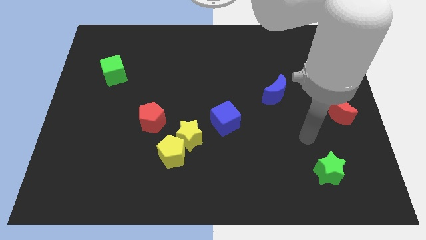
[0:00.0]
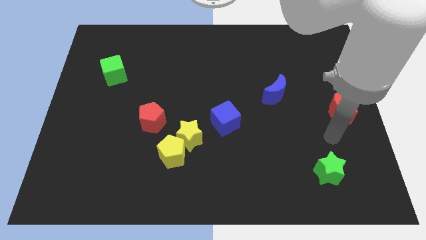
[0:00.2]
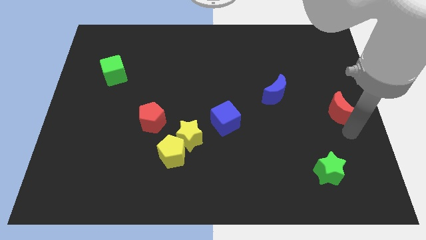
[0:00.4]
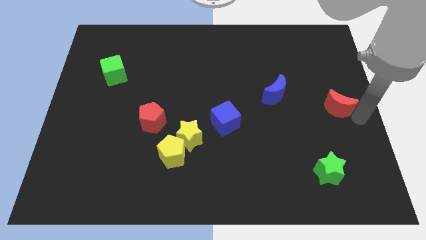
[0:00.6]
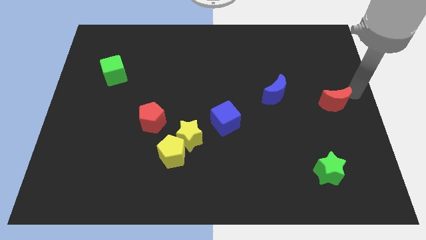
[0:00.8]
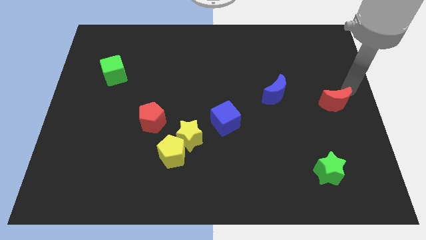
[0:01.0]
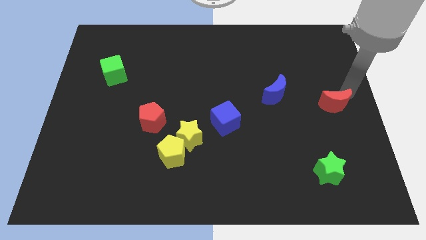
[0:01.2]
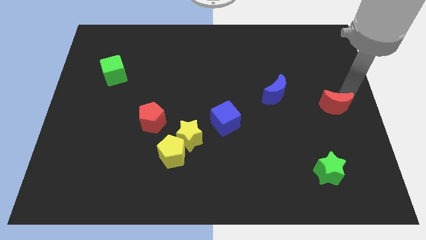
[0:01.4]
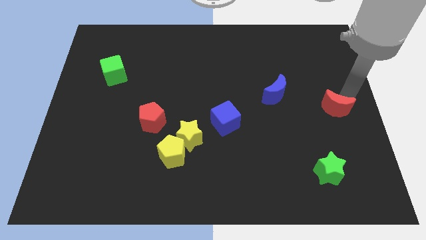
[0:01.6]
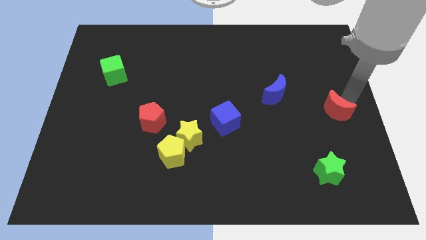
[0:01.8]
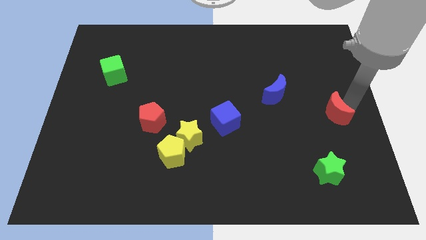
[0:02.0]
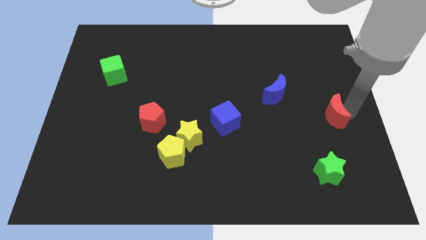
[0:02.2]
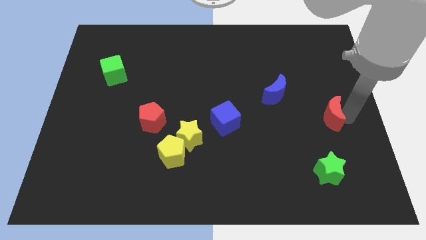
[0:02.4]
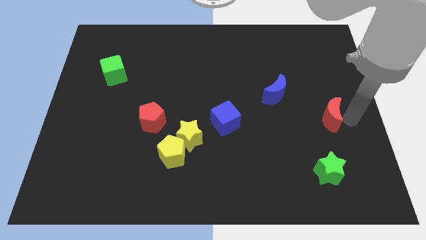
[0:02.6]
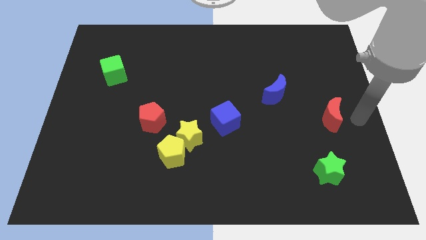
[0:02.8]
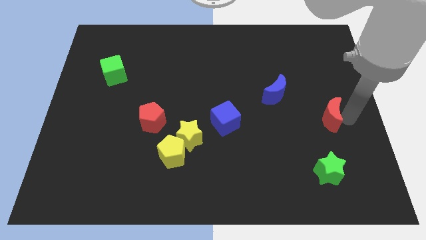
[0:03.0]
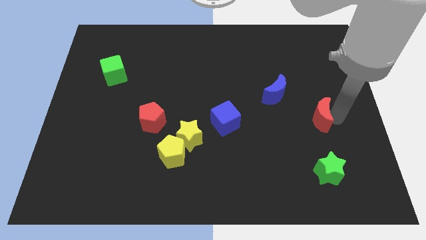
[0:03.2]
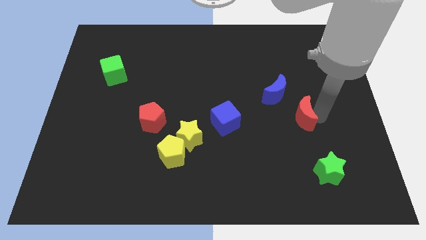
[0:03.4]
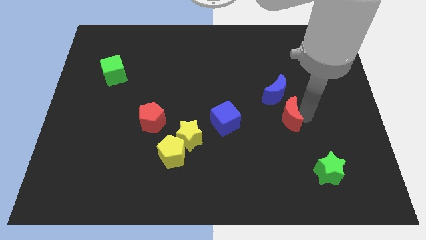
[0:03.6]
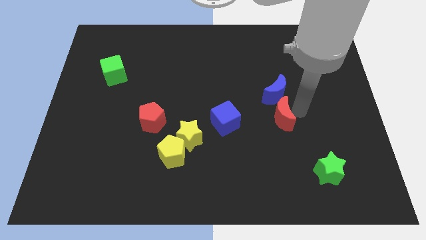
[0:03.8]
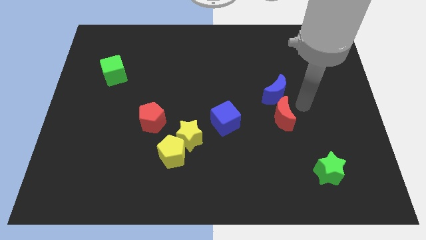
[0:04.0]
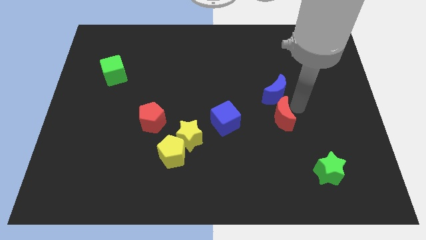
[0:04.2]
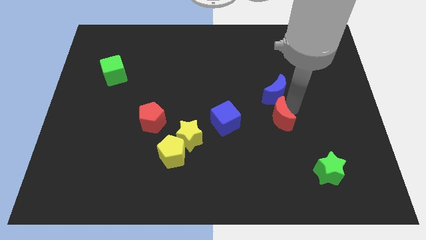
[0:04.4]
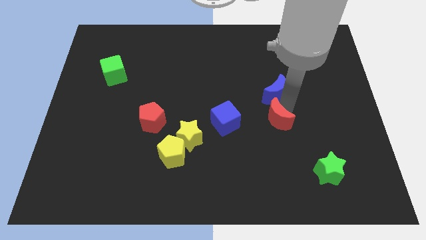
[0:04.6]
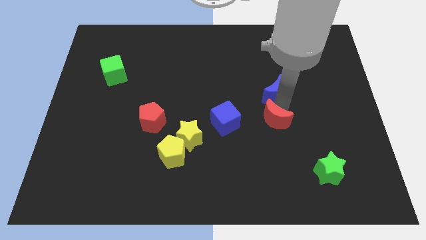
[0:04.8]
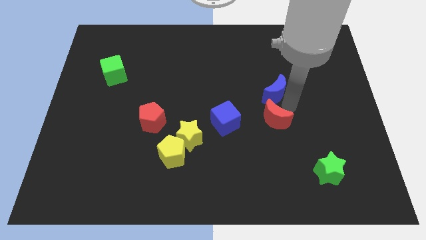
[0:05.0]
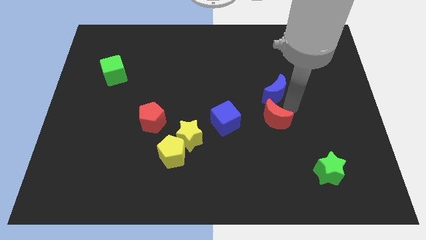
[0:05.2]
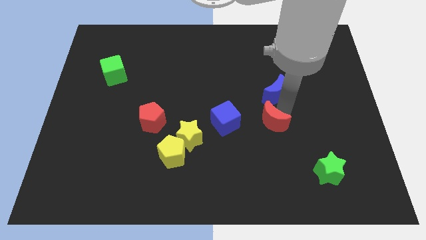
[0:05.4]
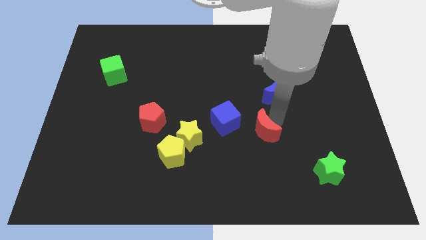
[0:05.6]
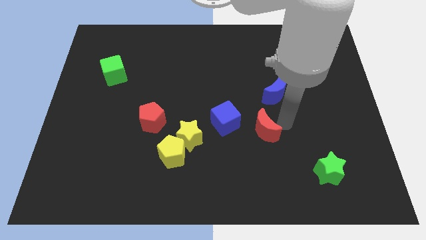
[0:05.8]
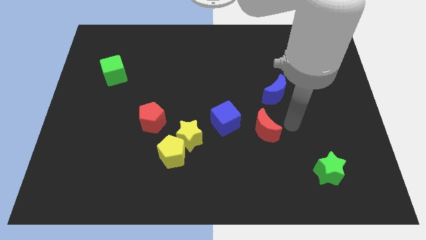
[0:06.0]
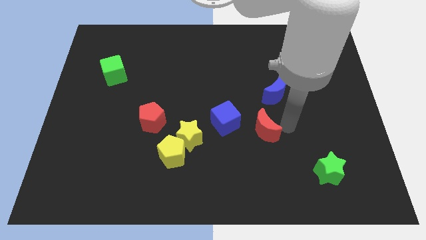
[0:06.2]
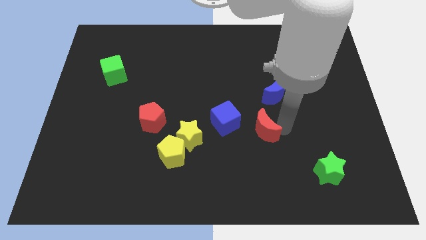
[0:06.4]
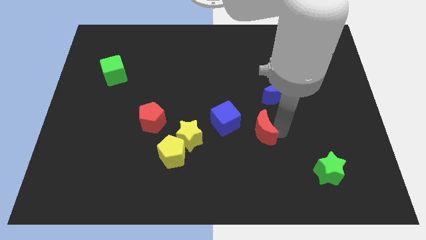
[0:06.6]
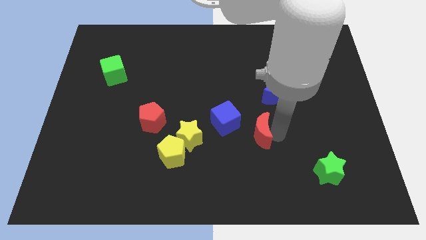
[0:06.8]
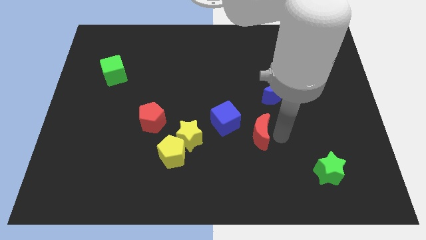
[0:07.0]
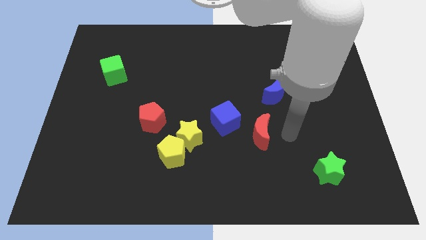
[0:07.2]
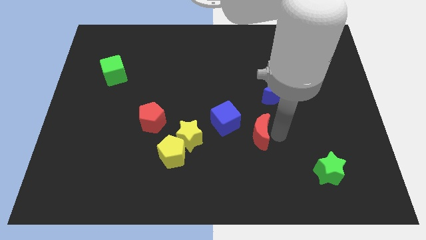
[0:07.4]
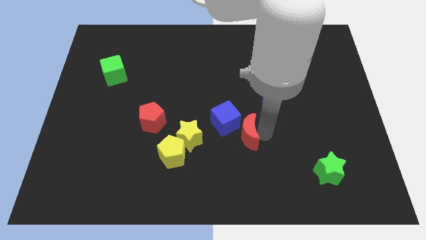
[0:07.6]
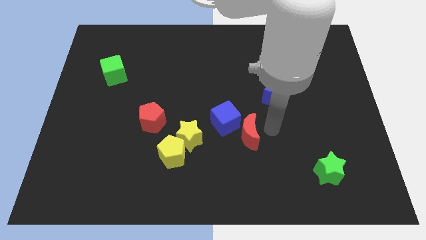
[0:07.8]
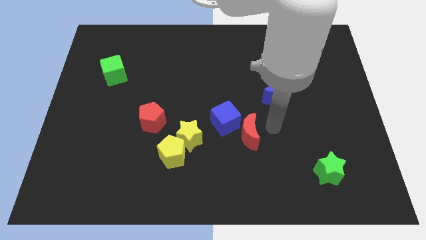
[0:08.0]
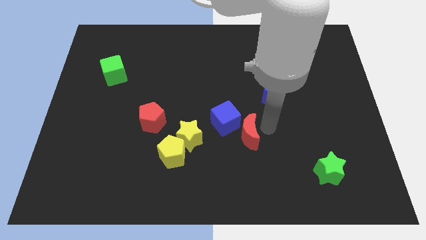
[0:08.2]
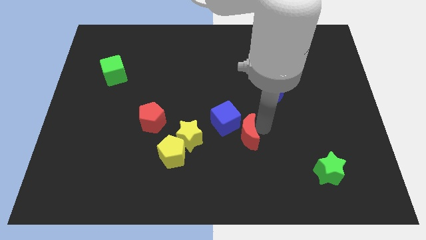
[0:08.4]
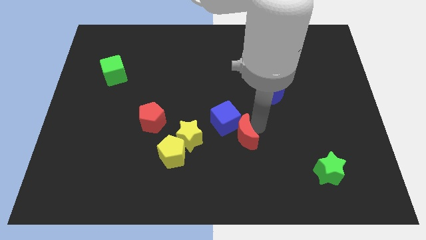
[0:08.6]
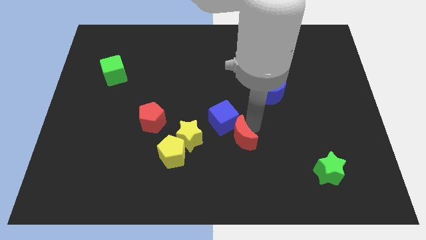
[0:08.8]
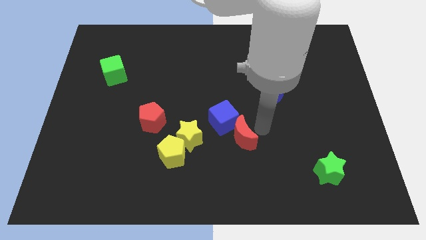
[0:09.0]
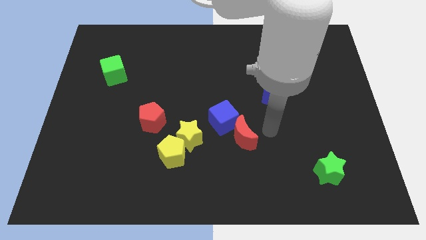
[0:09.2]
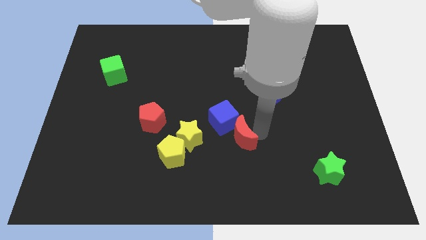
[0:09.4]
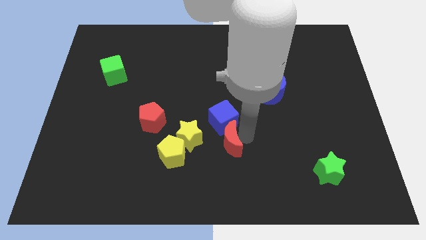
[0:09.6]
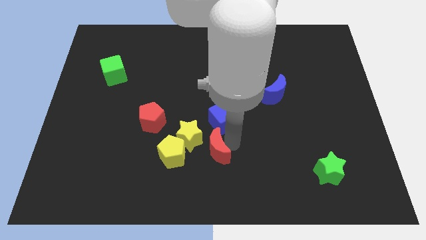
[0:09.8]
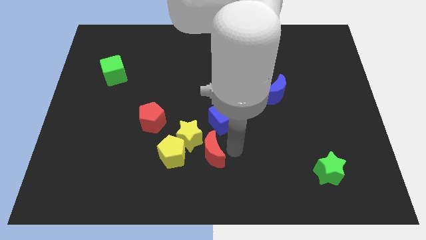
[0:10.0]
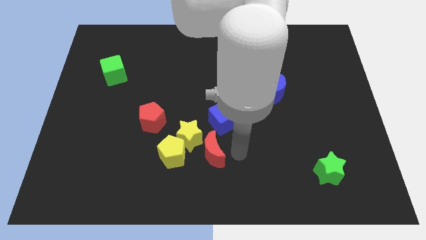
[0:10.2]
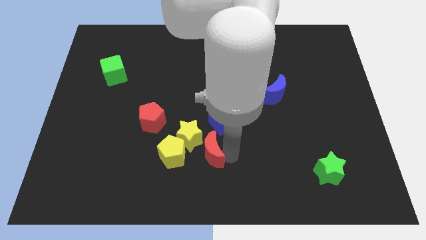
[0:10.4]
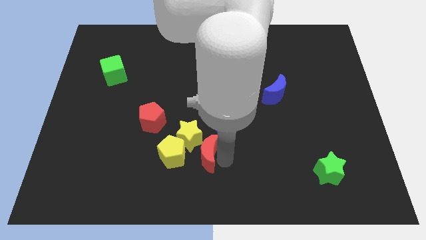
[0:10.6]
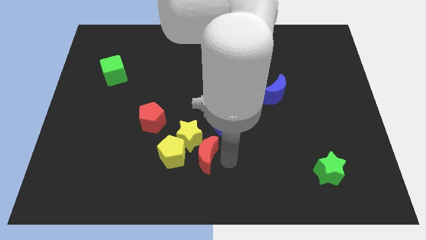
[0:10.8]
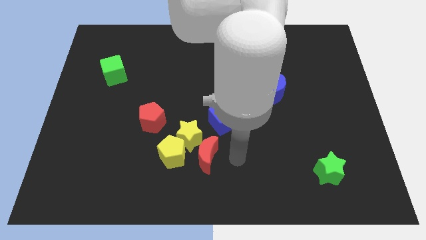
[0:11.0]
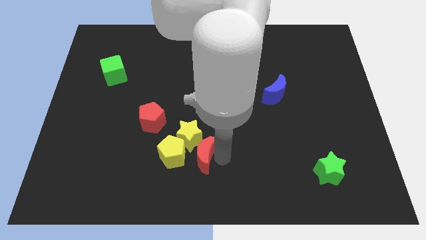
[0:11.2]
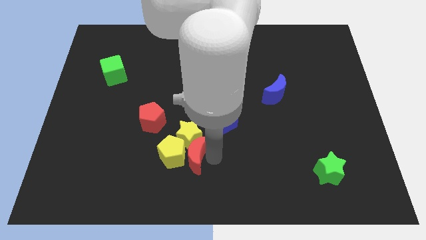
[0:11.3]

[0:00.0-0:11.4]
move the red moon towards the yellow pentagon

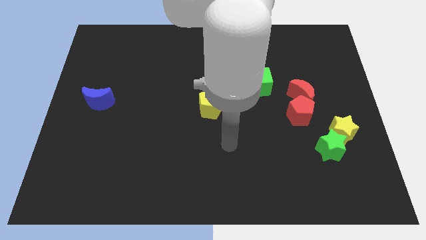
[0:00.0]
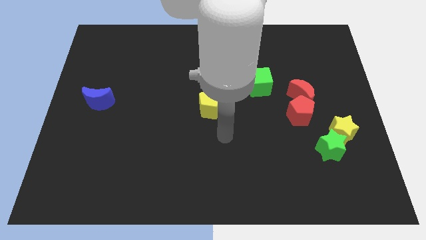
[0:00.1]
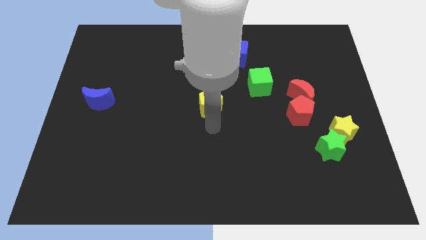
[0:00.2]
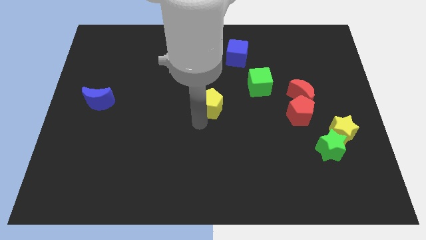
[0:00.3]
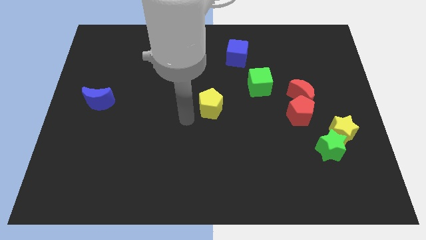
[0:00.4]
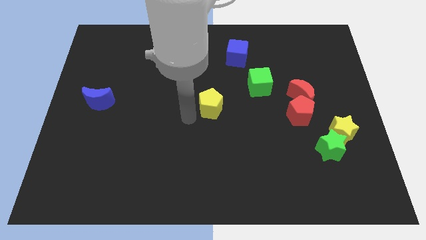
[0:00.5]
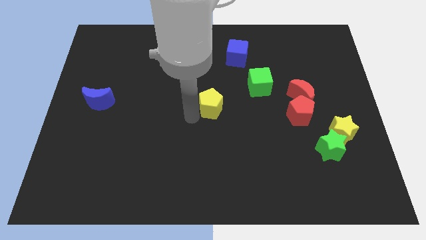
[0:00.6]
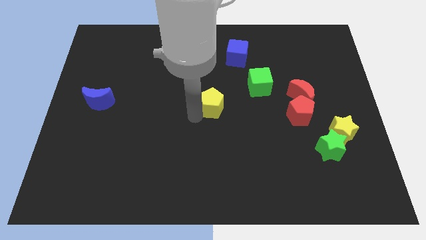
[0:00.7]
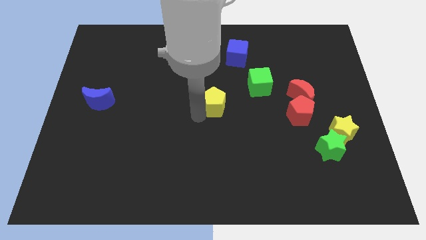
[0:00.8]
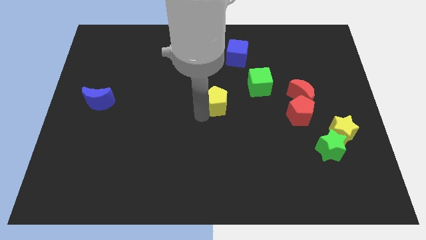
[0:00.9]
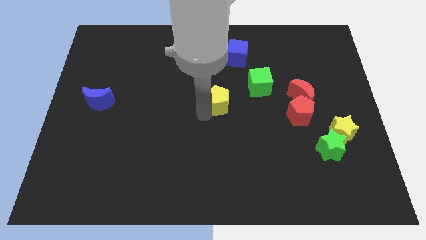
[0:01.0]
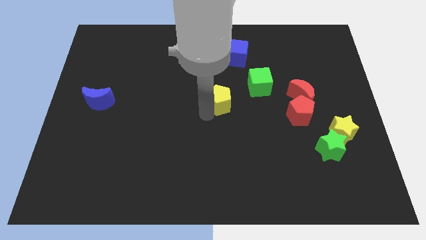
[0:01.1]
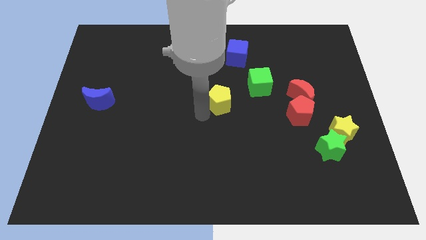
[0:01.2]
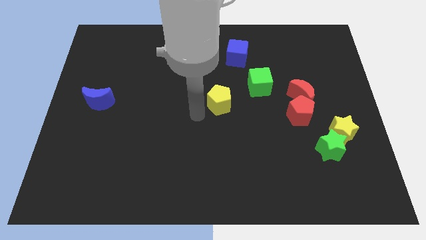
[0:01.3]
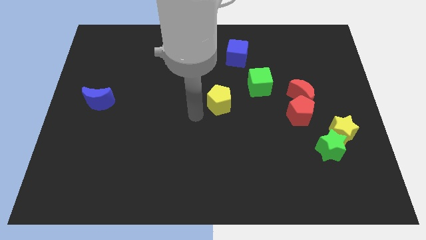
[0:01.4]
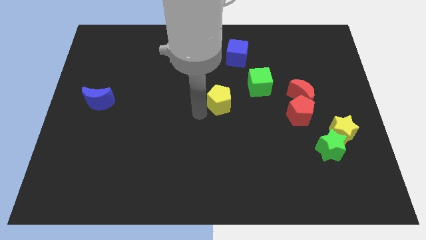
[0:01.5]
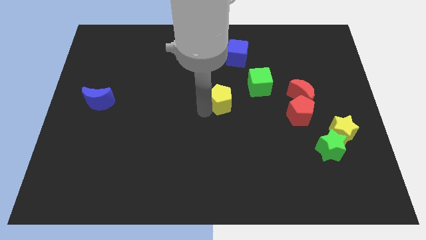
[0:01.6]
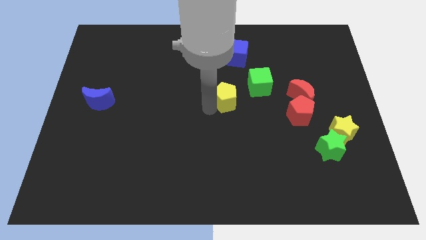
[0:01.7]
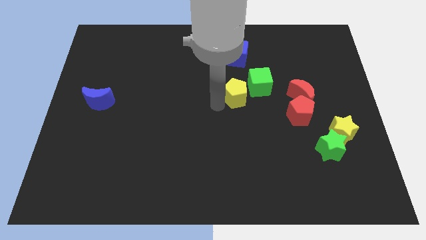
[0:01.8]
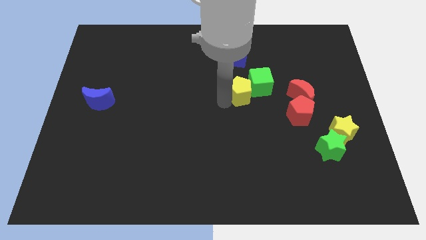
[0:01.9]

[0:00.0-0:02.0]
put the yellow pentagon close to the green cube
